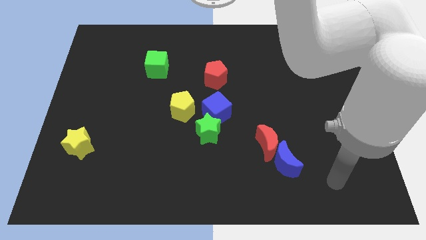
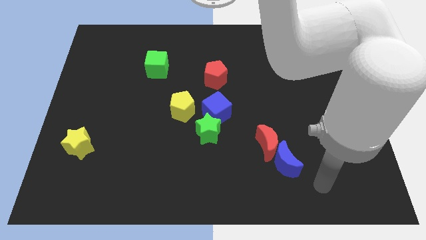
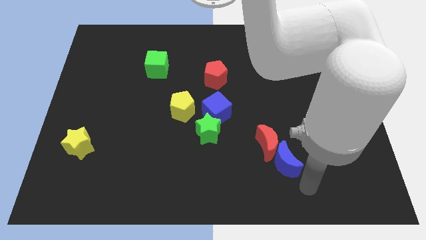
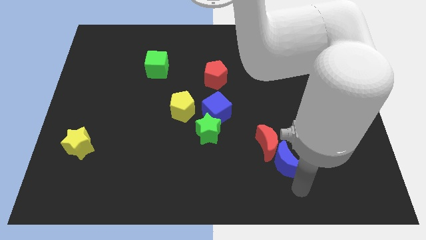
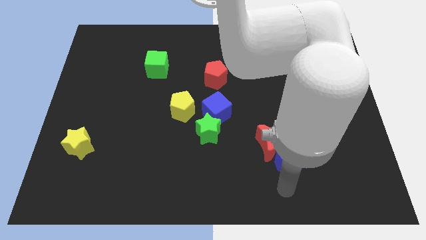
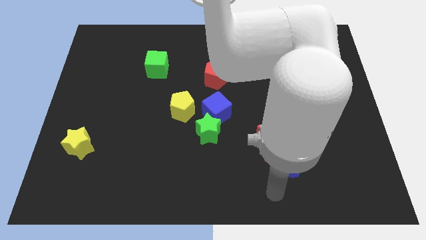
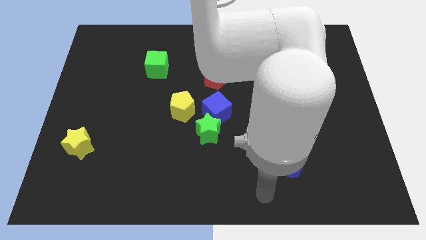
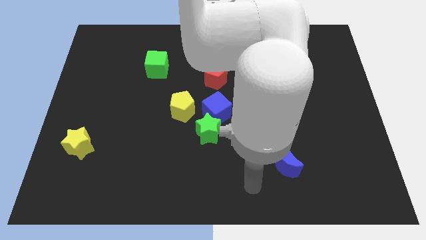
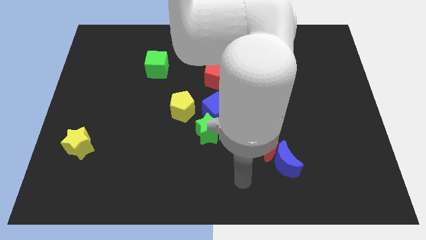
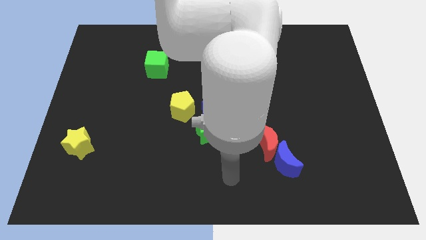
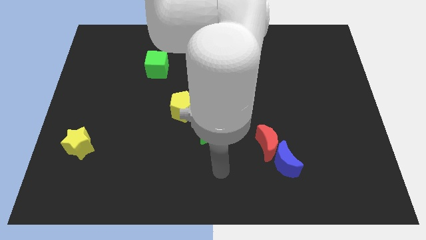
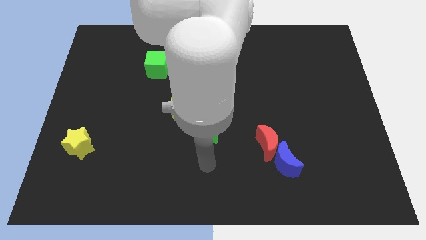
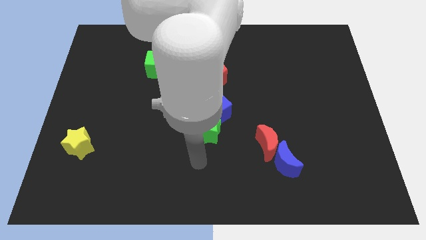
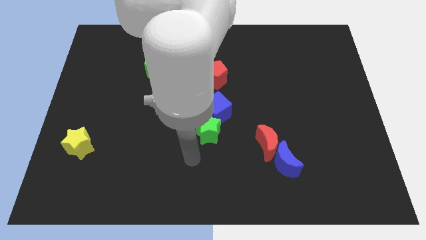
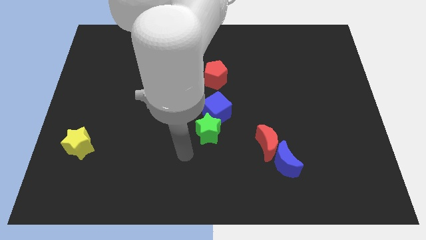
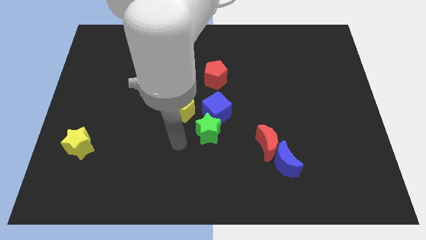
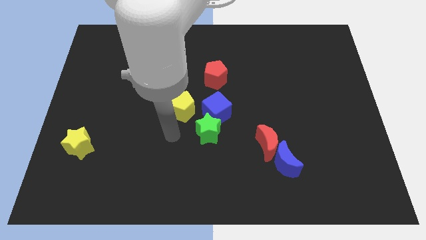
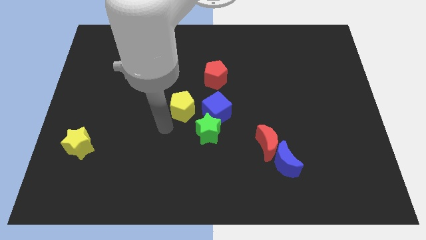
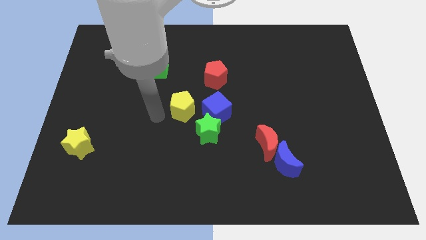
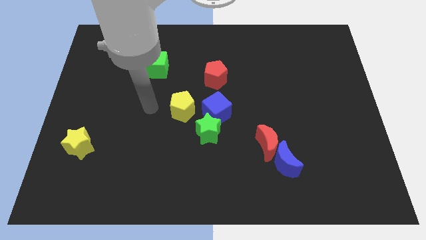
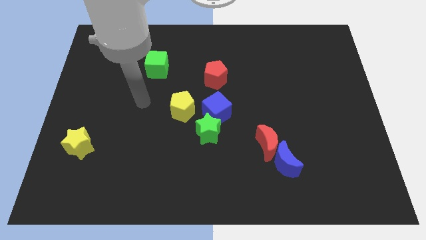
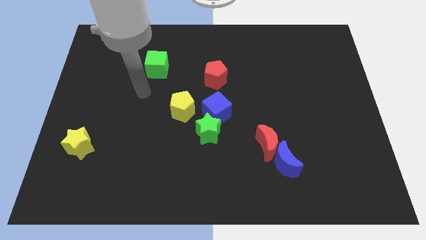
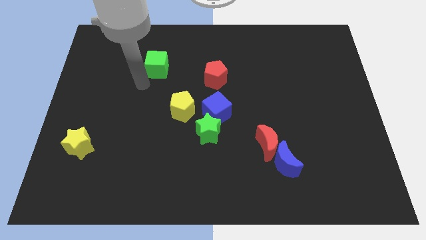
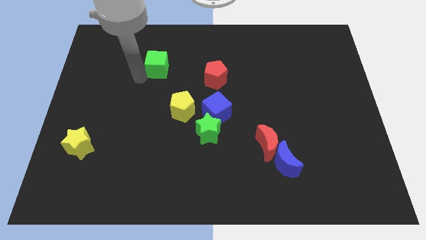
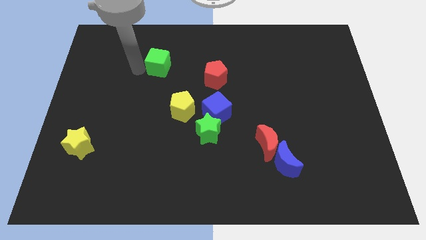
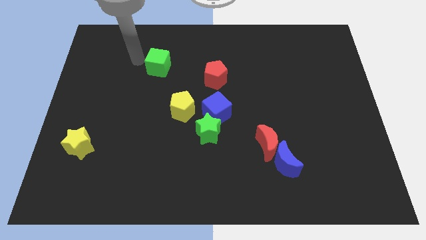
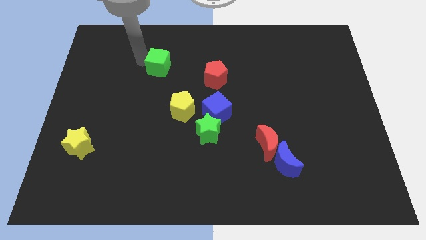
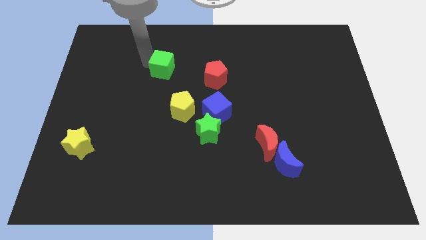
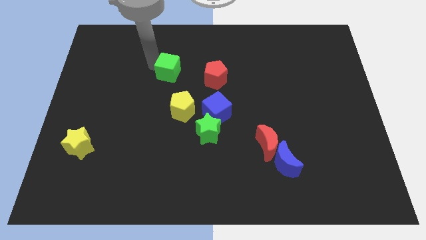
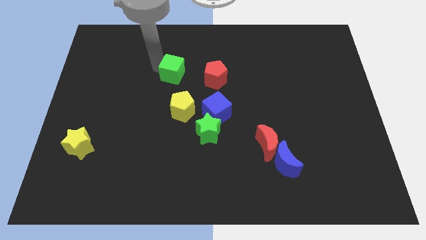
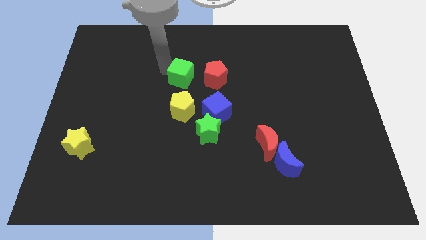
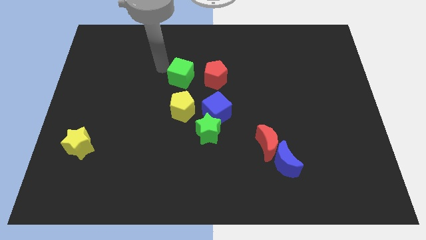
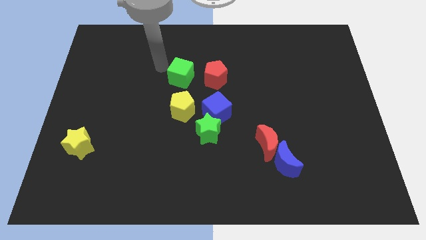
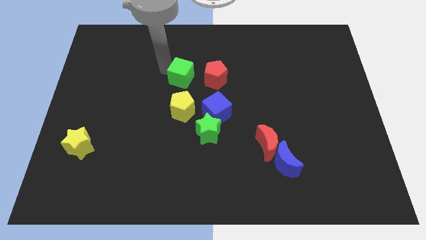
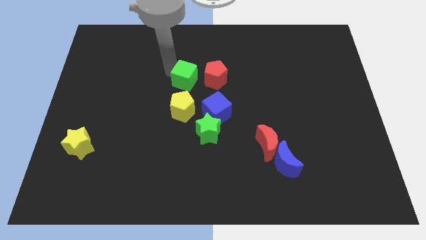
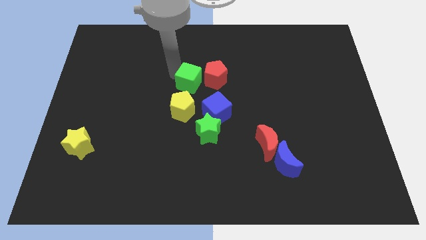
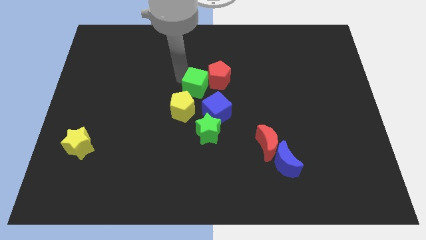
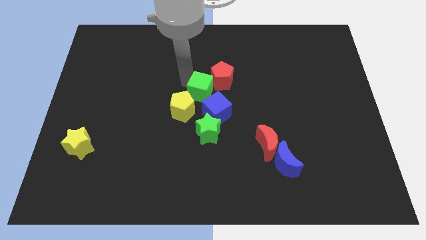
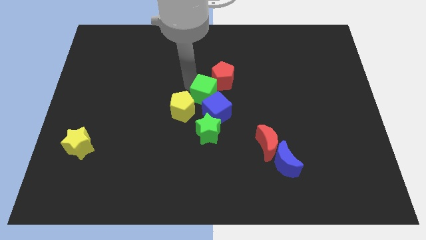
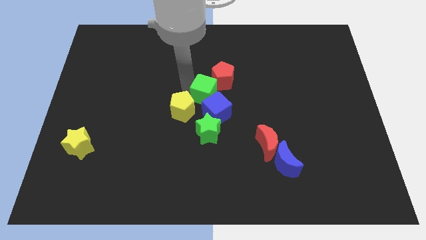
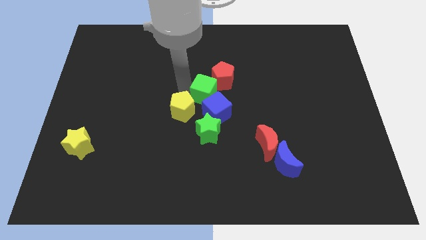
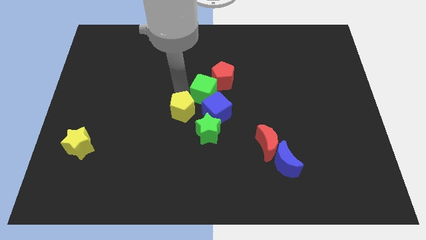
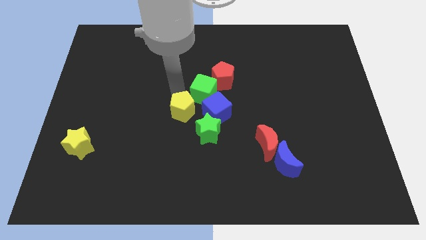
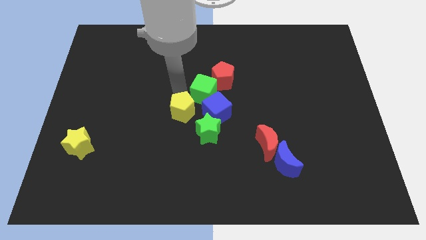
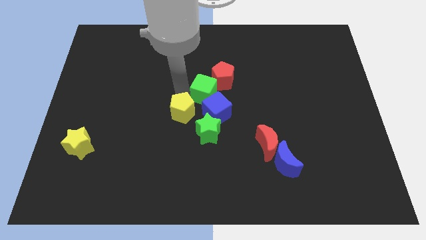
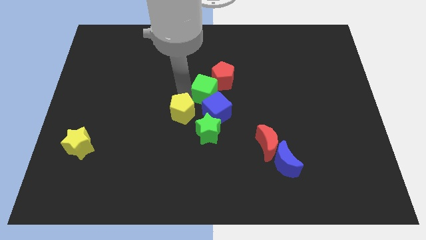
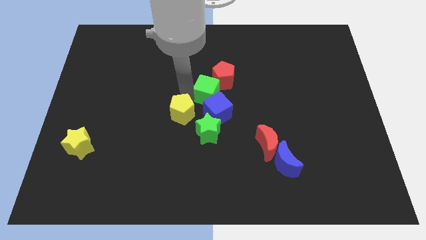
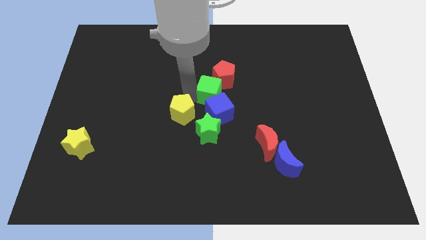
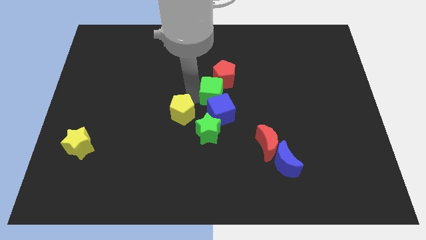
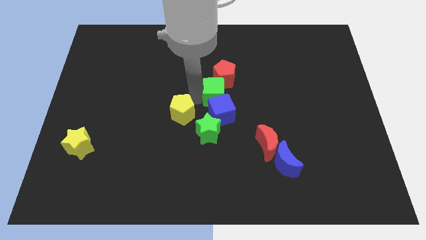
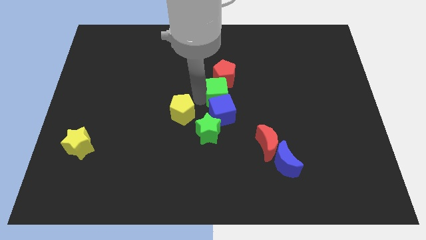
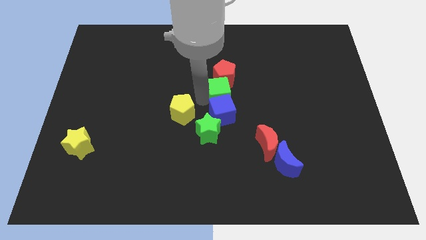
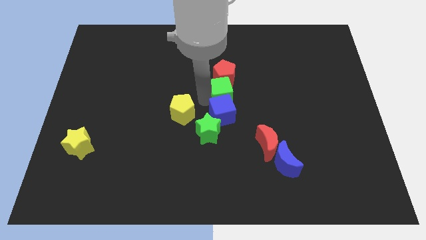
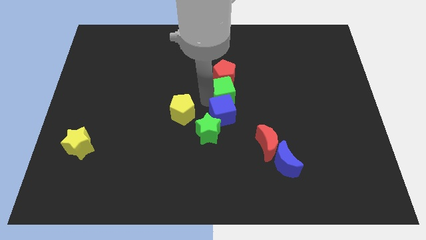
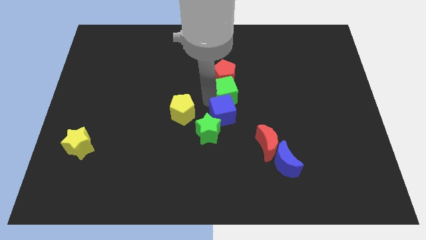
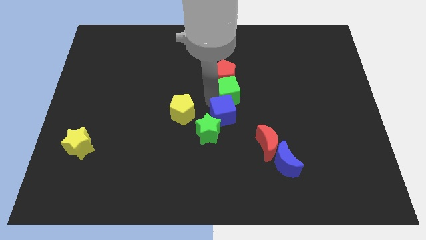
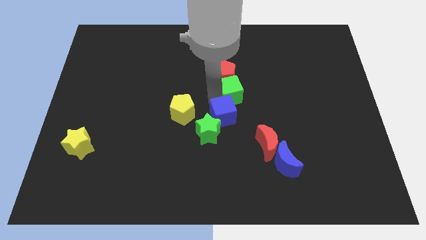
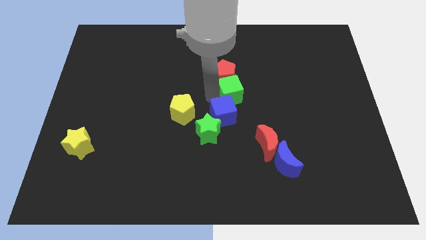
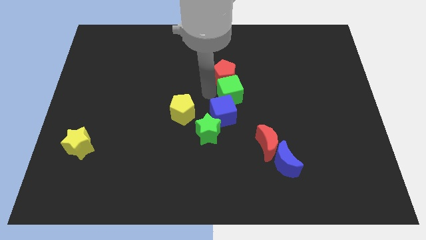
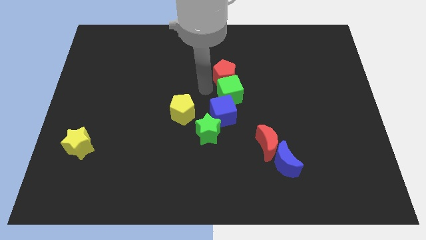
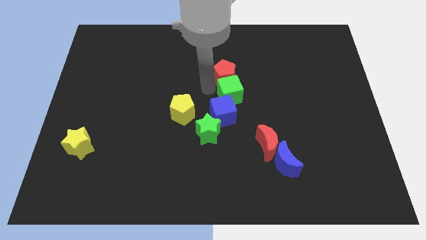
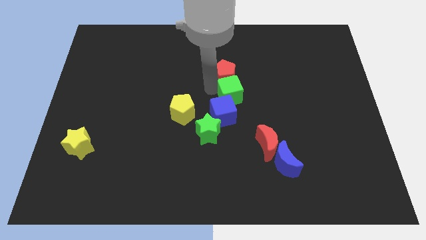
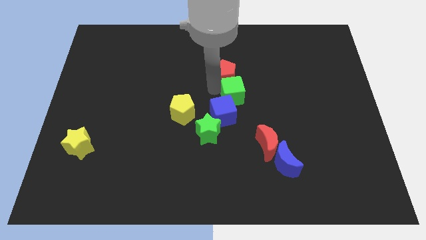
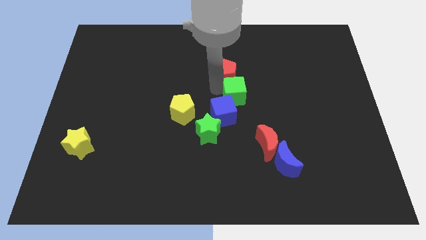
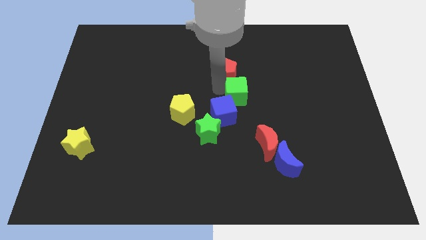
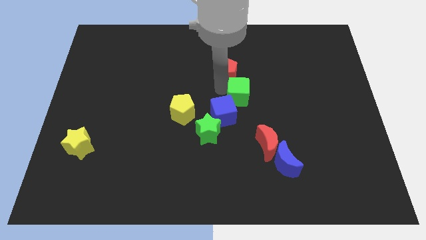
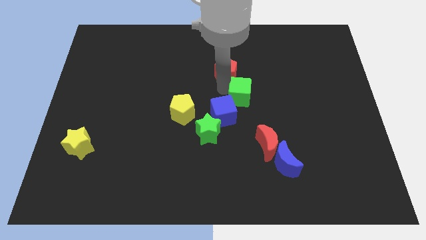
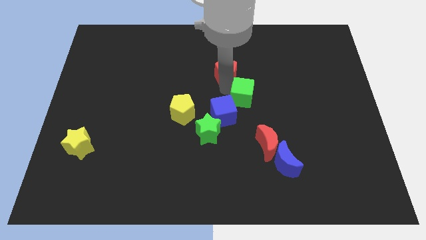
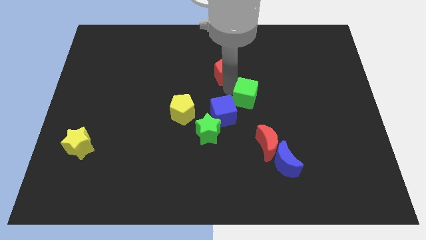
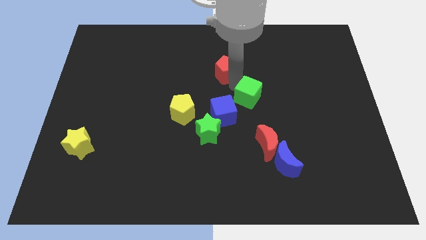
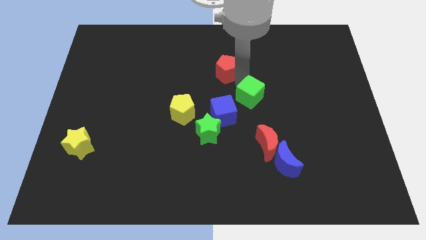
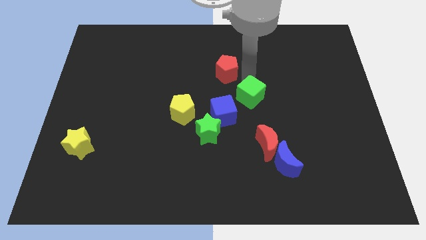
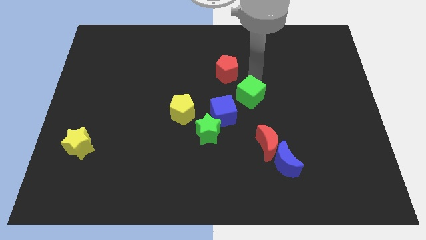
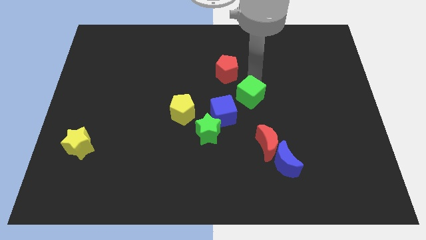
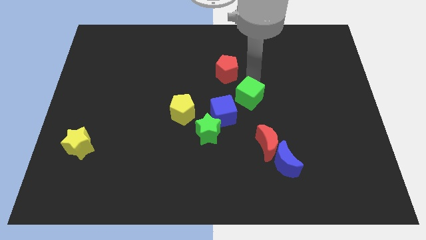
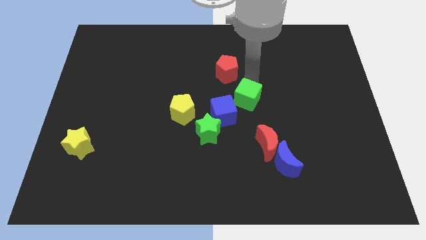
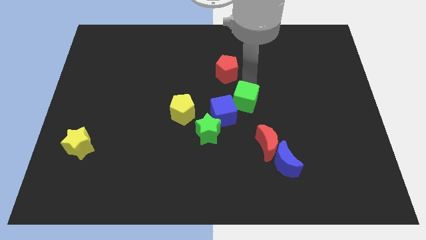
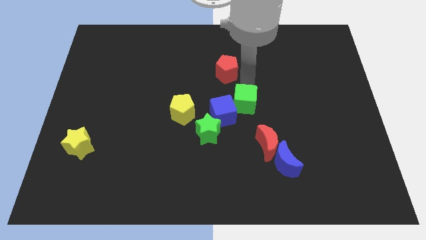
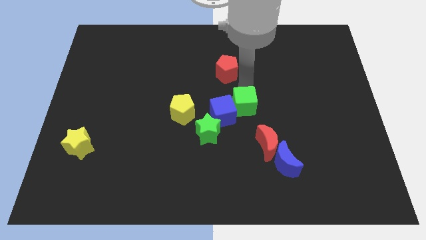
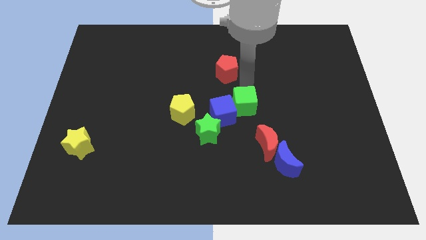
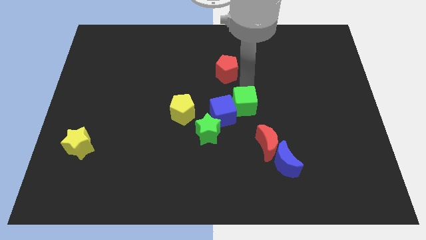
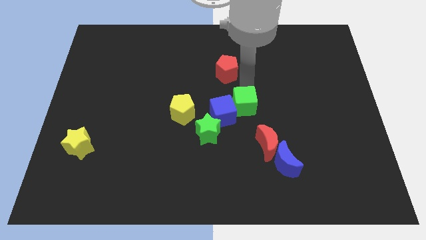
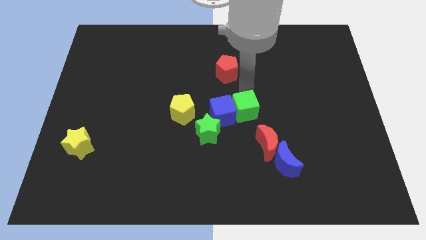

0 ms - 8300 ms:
put the green cube to the top left of the red moon
